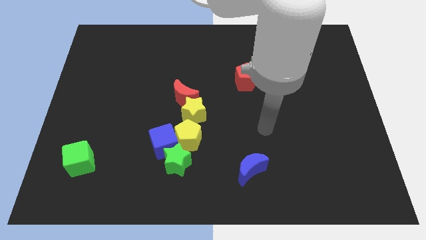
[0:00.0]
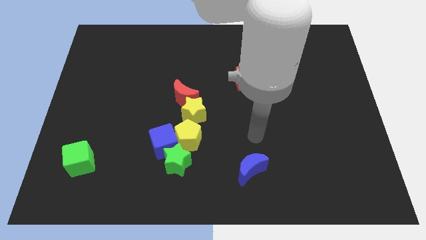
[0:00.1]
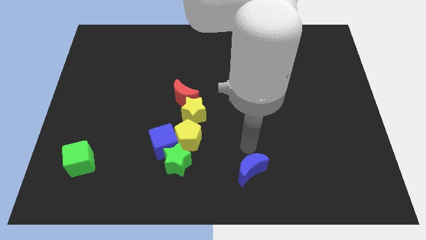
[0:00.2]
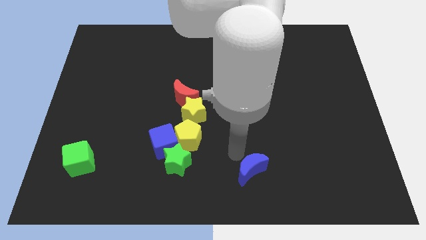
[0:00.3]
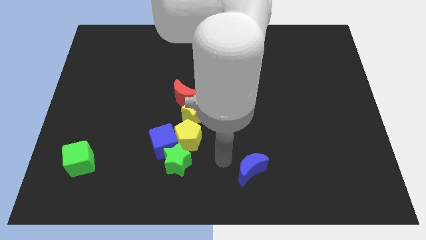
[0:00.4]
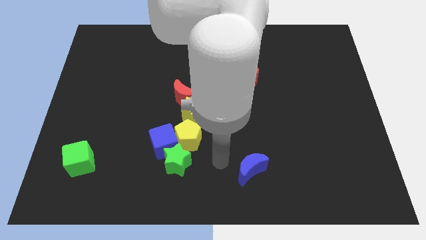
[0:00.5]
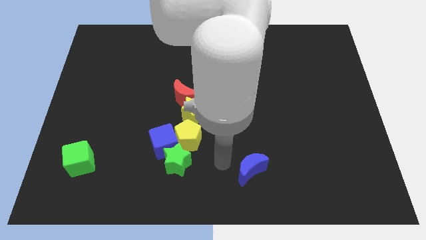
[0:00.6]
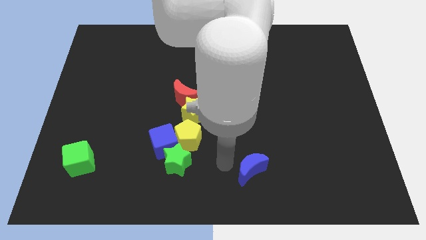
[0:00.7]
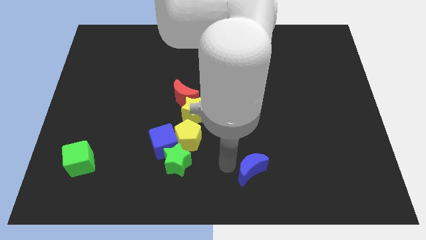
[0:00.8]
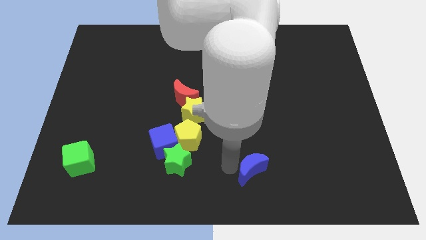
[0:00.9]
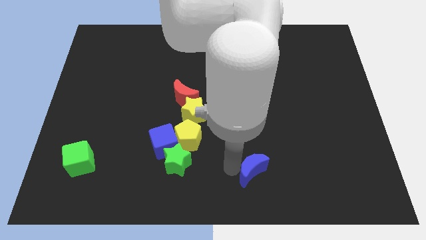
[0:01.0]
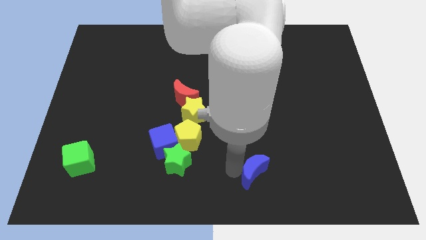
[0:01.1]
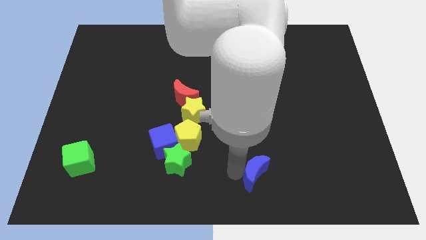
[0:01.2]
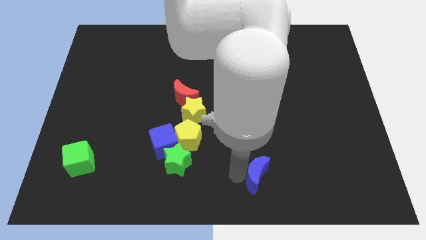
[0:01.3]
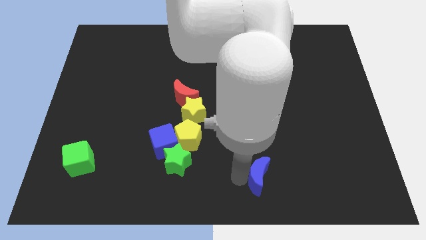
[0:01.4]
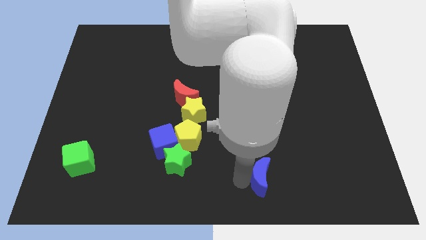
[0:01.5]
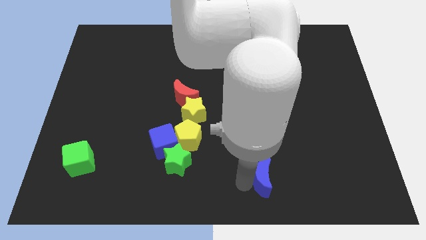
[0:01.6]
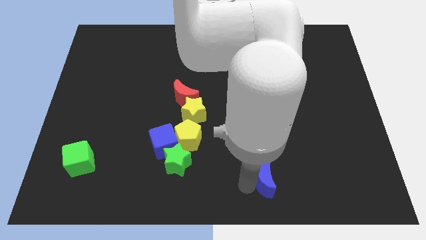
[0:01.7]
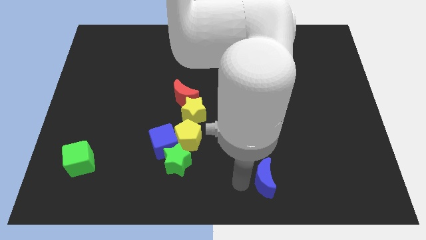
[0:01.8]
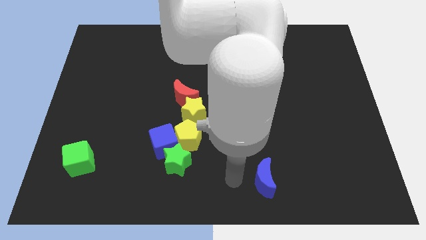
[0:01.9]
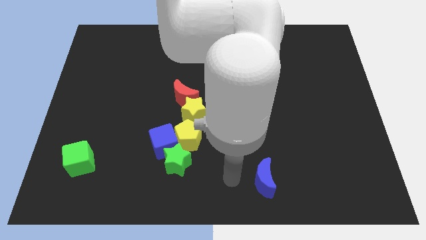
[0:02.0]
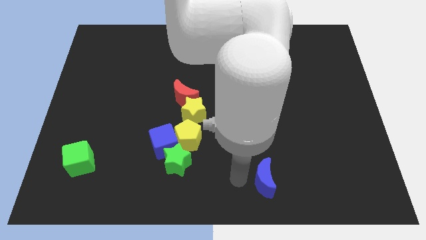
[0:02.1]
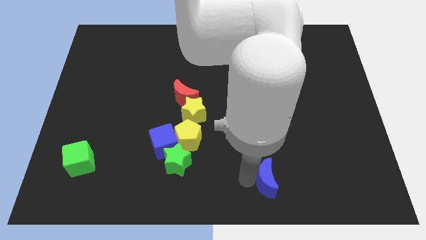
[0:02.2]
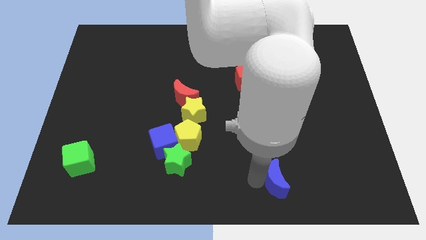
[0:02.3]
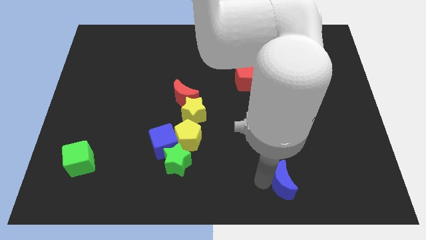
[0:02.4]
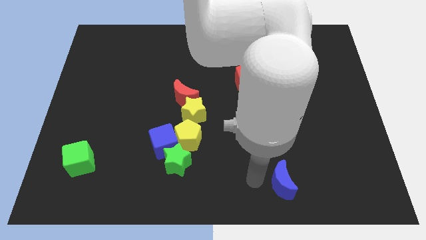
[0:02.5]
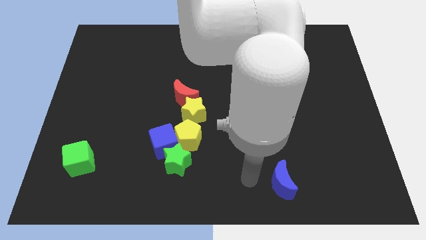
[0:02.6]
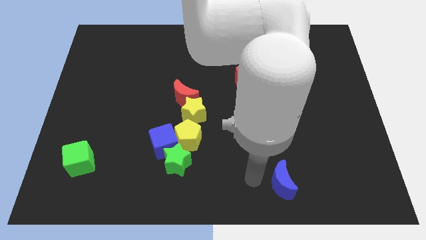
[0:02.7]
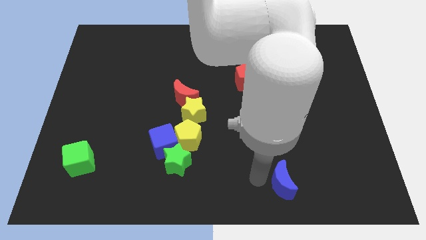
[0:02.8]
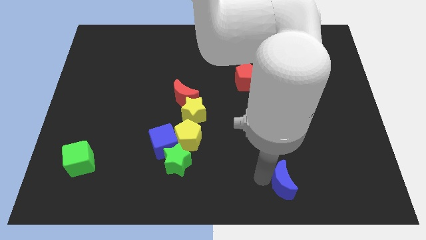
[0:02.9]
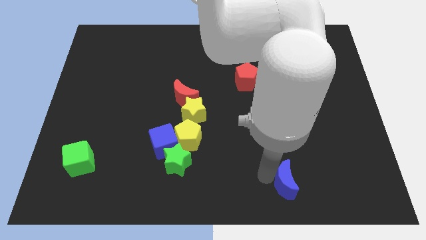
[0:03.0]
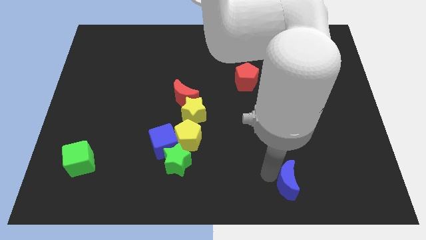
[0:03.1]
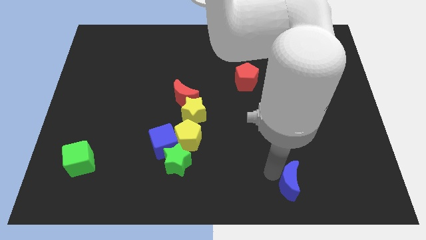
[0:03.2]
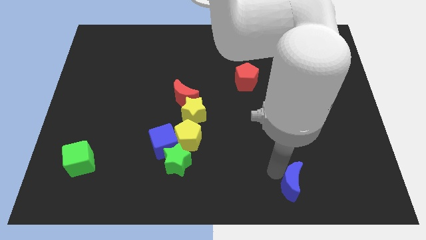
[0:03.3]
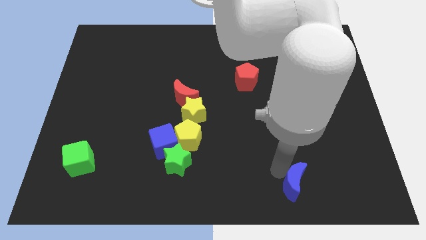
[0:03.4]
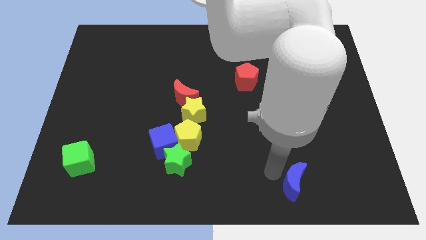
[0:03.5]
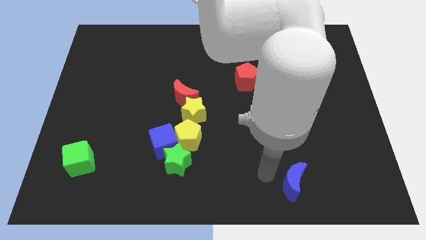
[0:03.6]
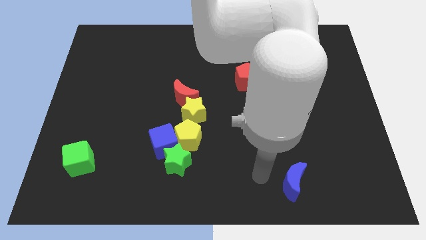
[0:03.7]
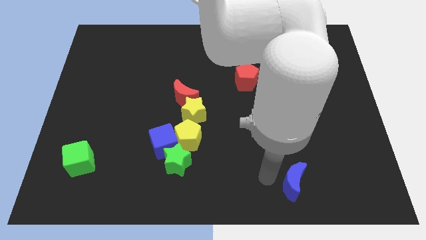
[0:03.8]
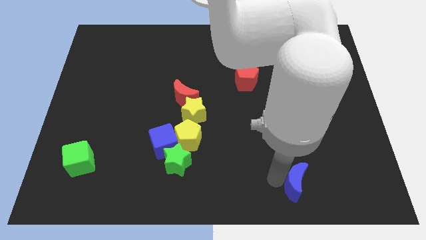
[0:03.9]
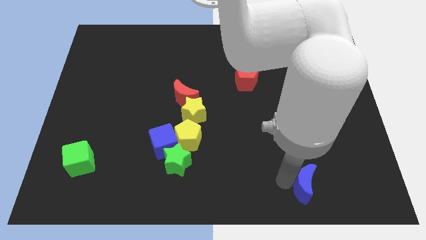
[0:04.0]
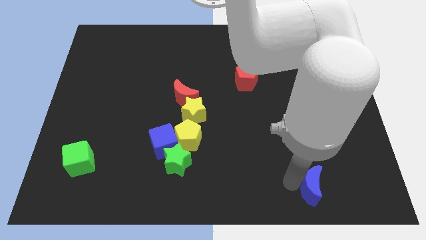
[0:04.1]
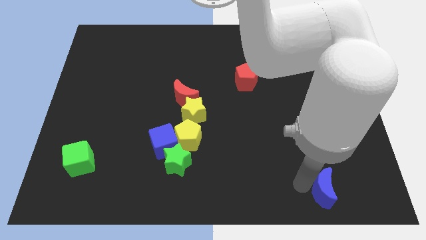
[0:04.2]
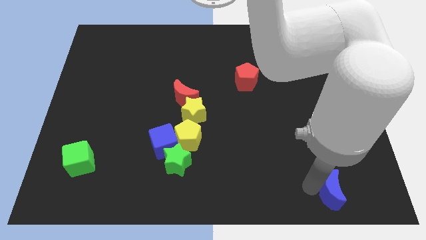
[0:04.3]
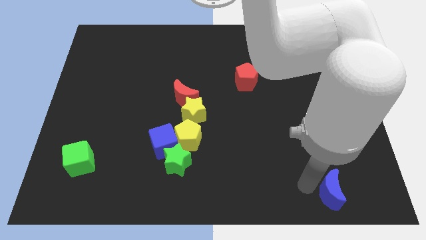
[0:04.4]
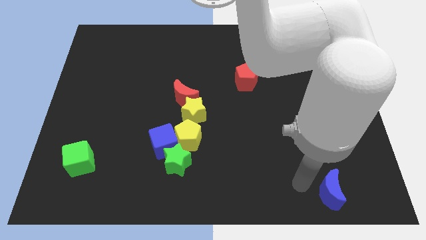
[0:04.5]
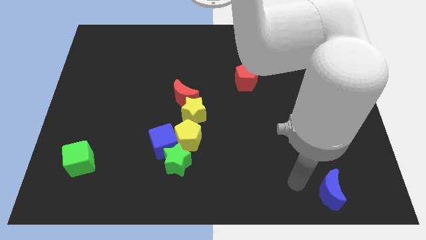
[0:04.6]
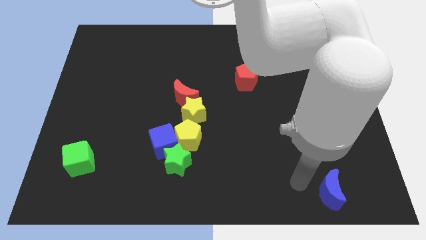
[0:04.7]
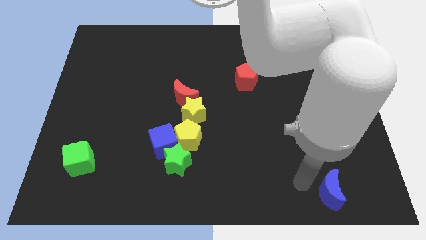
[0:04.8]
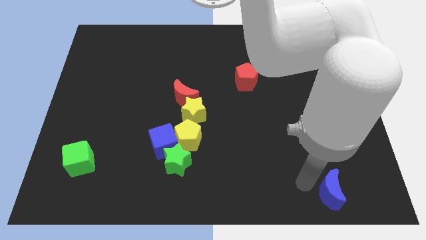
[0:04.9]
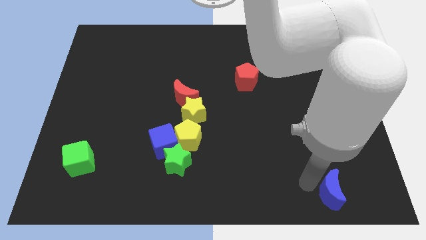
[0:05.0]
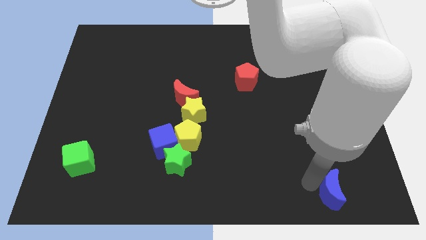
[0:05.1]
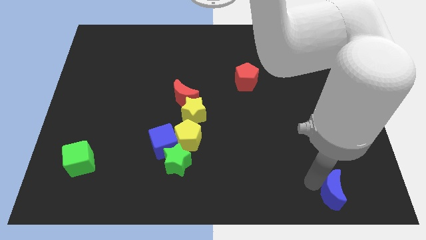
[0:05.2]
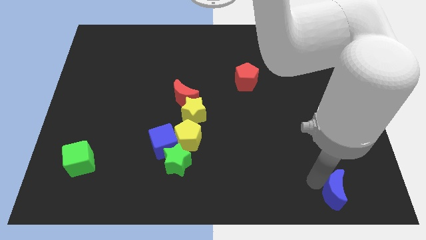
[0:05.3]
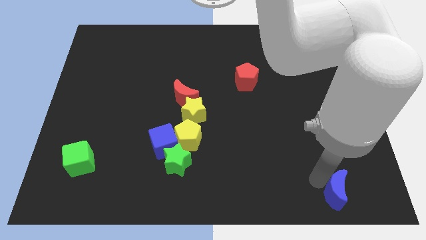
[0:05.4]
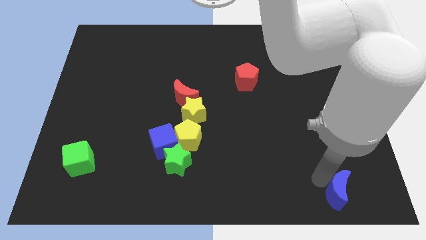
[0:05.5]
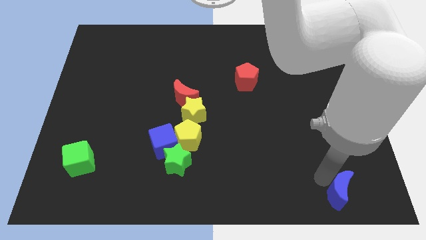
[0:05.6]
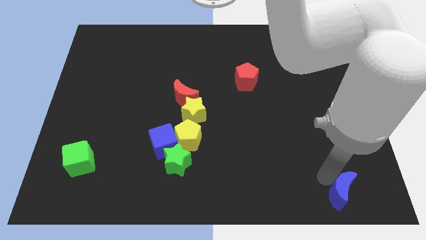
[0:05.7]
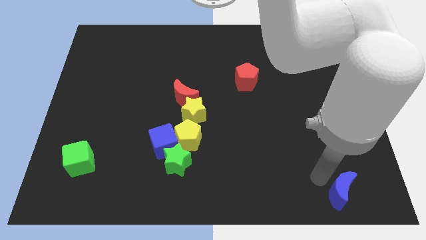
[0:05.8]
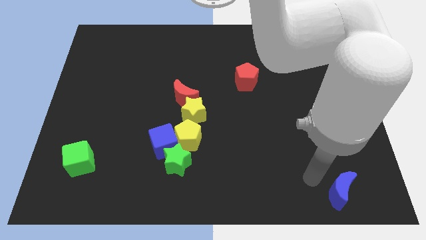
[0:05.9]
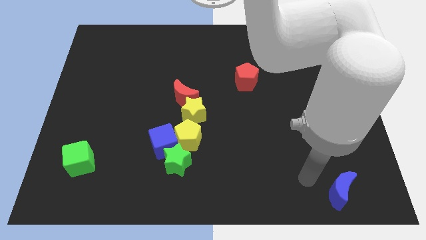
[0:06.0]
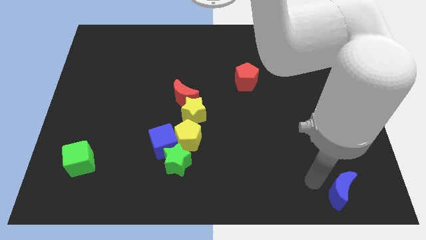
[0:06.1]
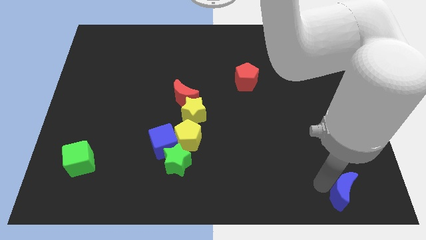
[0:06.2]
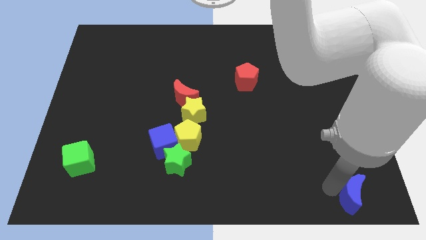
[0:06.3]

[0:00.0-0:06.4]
put the blue moon to the bottom right of the board
